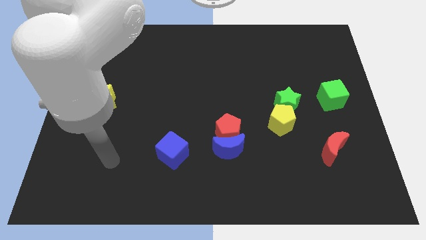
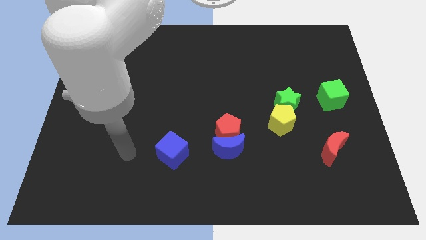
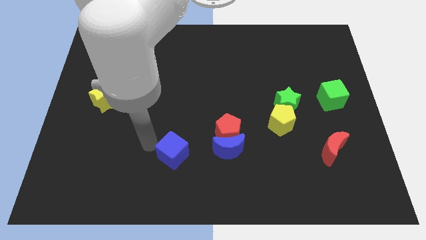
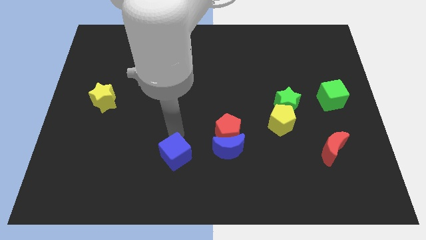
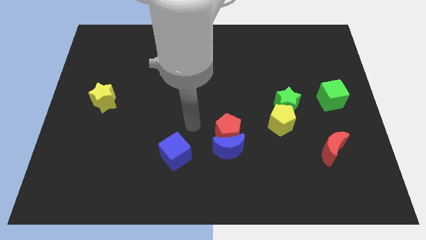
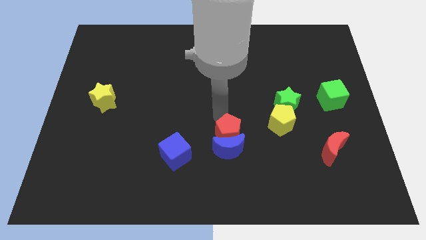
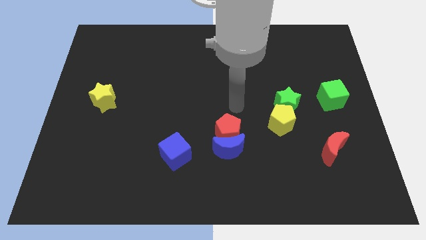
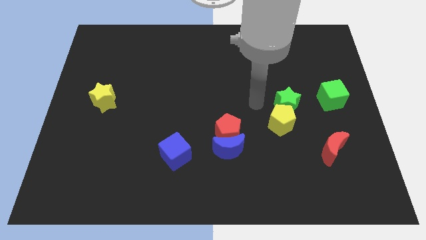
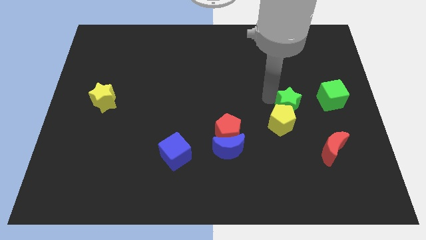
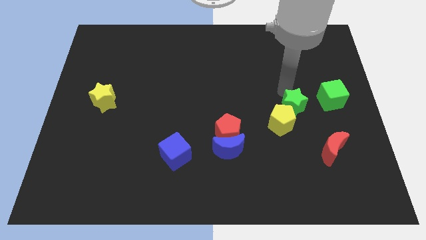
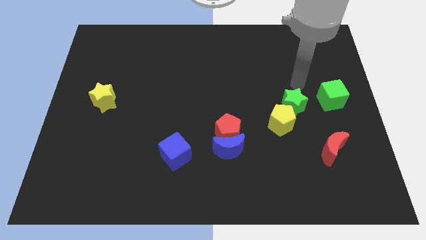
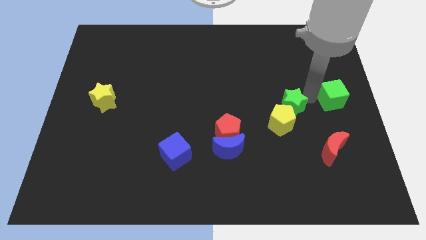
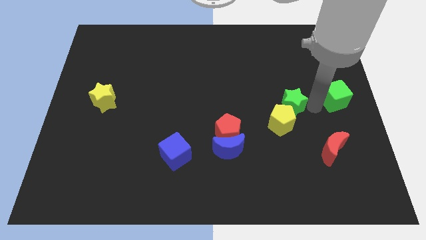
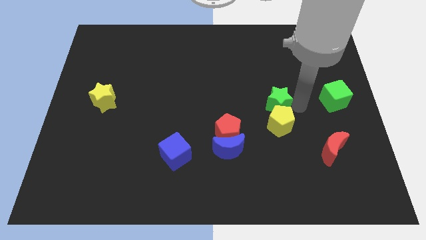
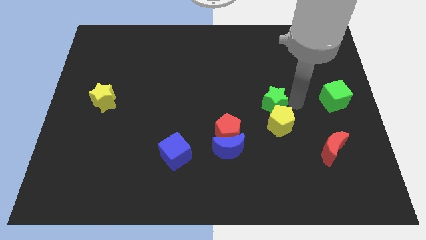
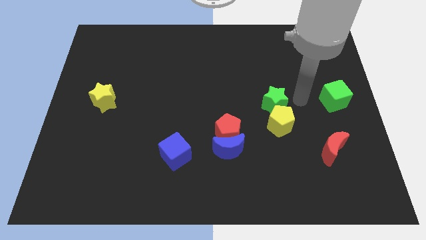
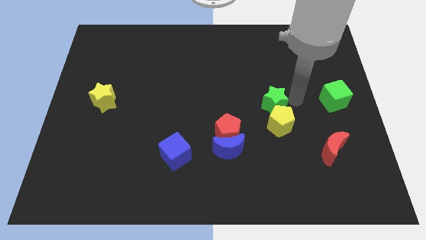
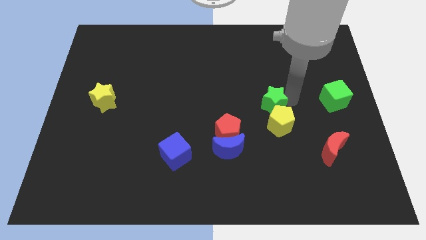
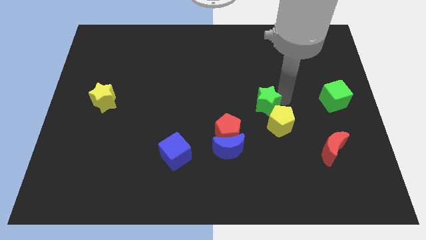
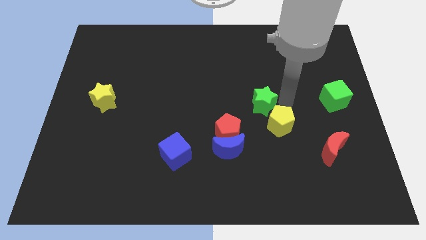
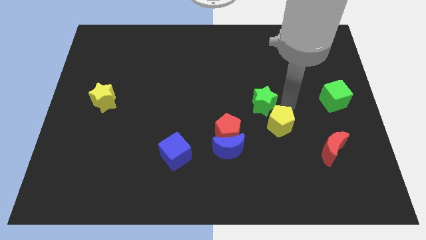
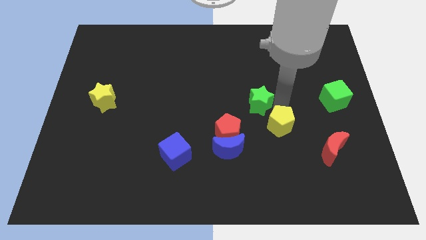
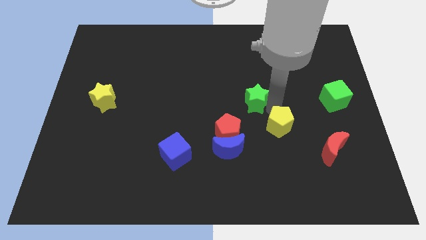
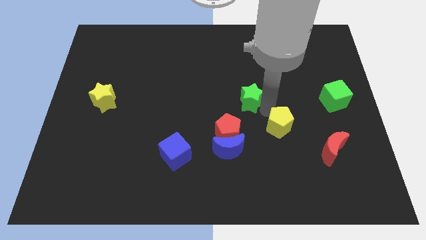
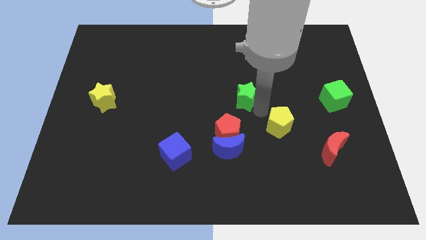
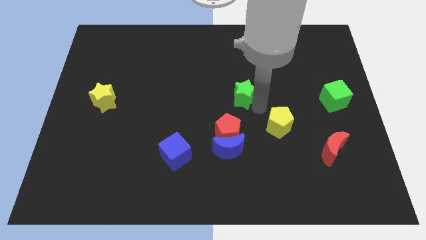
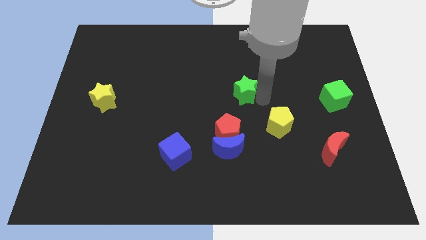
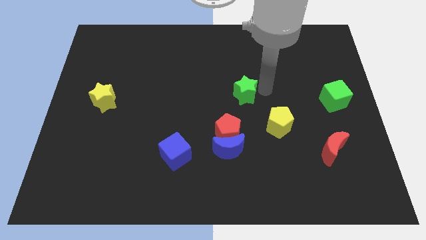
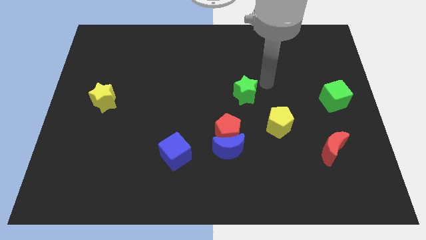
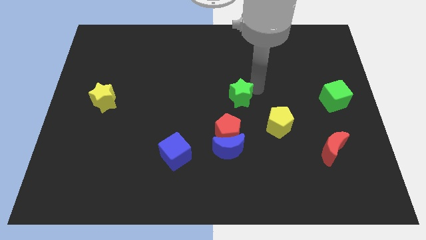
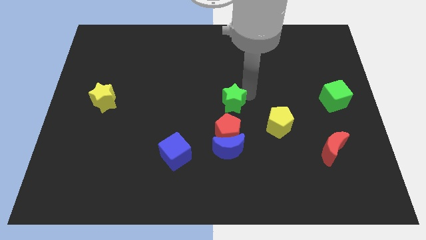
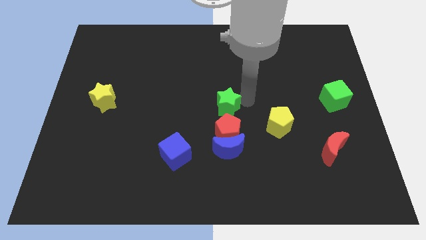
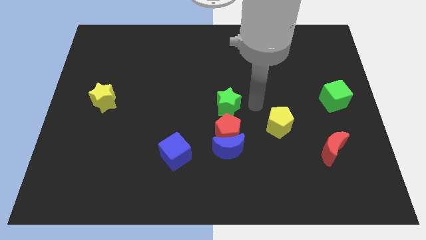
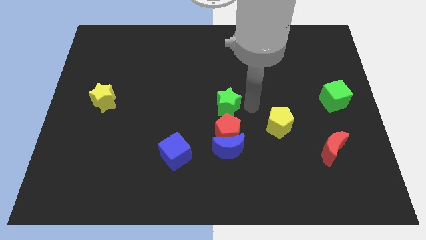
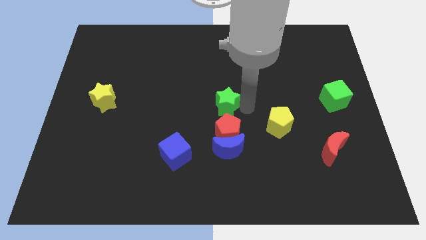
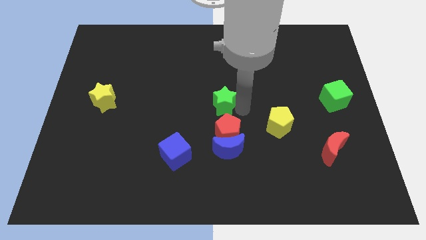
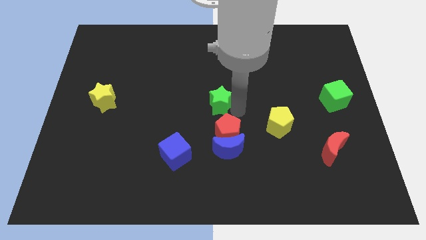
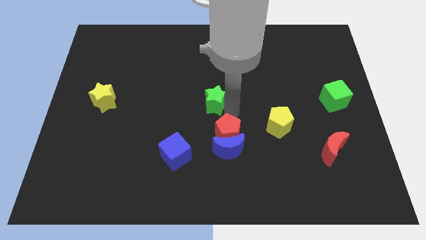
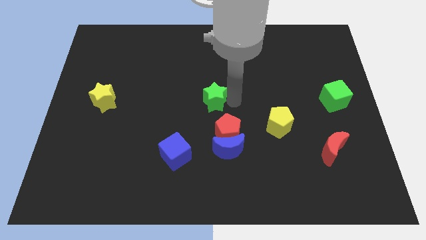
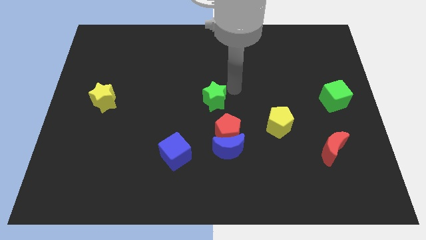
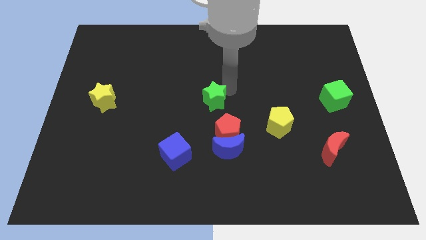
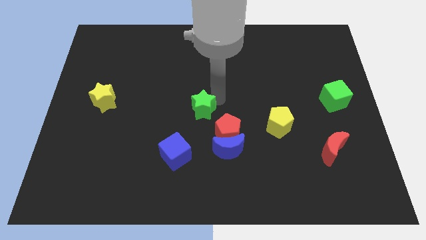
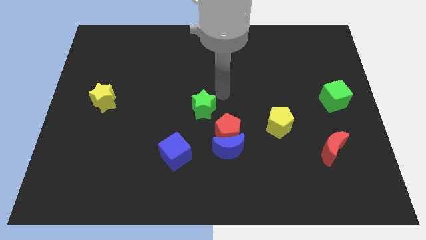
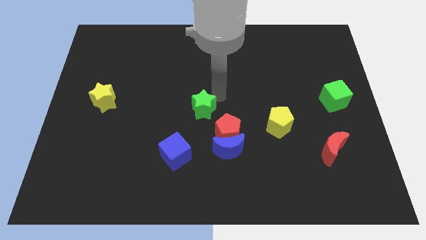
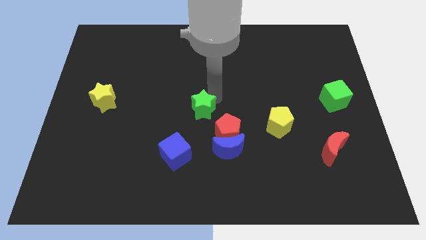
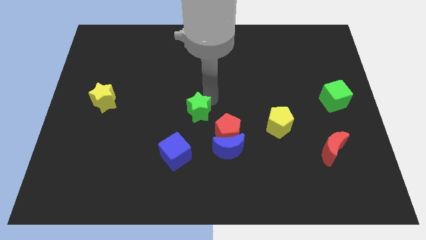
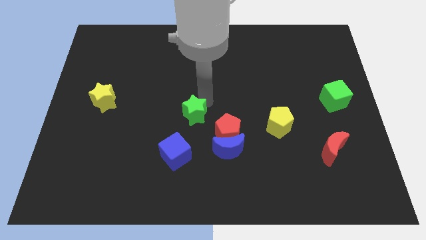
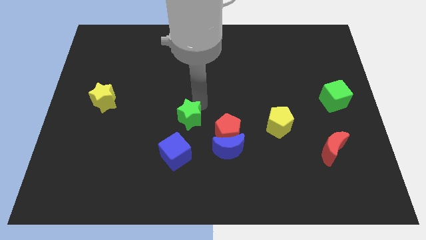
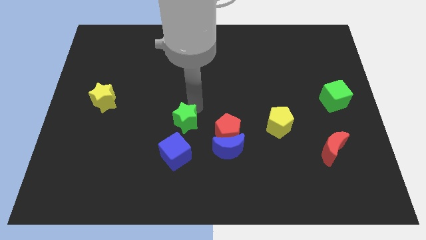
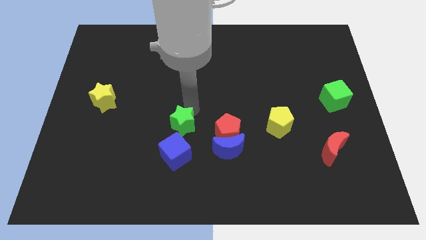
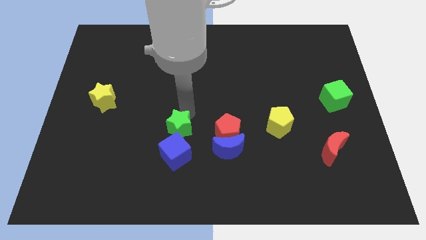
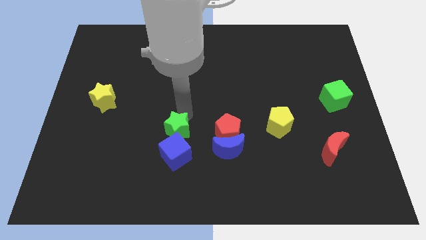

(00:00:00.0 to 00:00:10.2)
slide the green star next to the blue cube

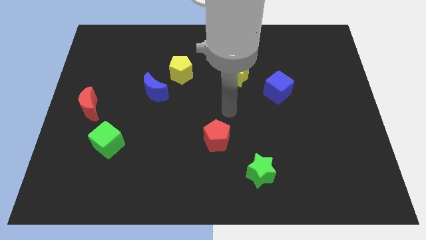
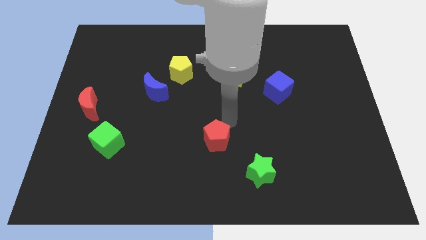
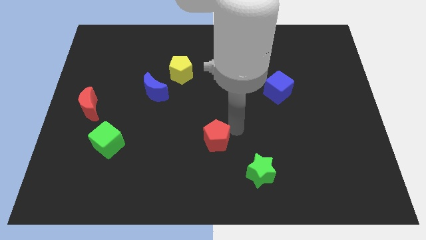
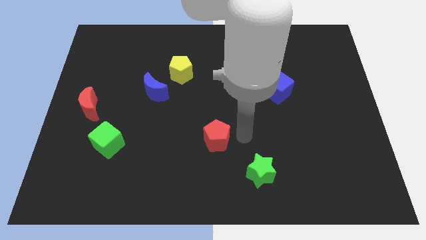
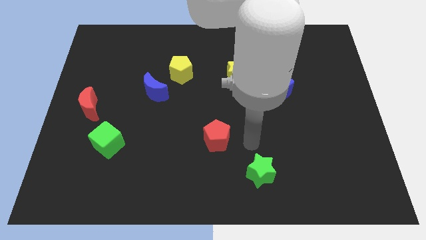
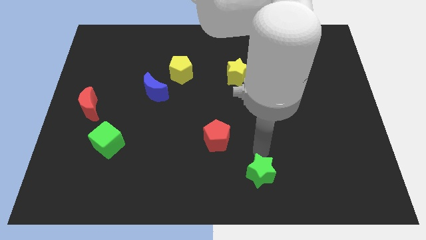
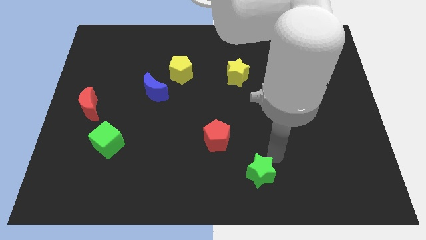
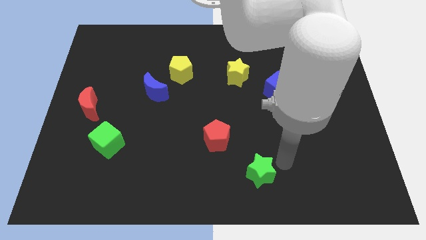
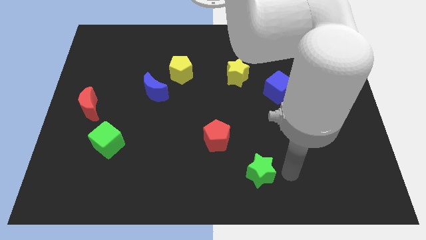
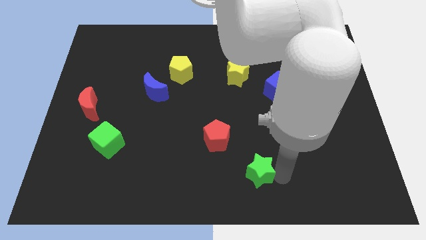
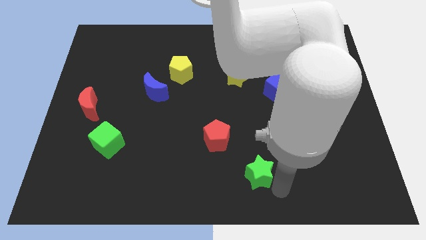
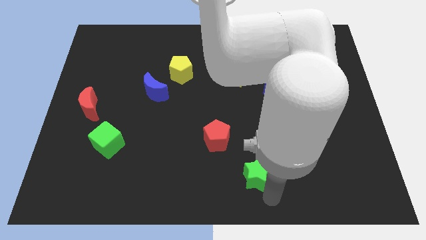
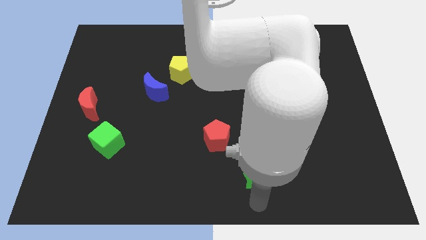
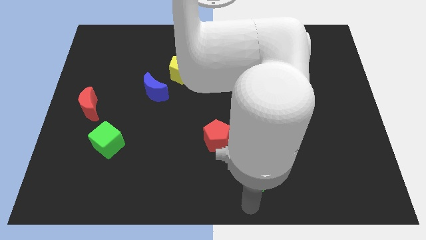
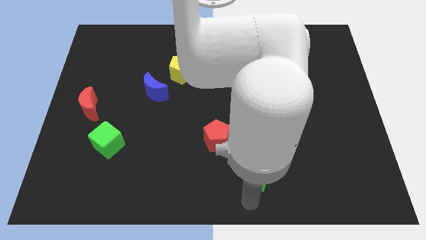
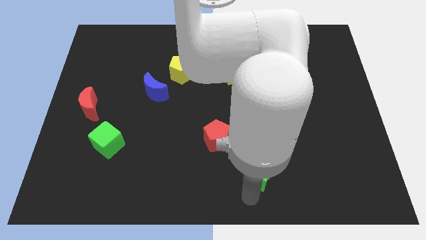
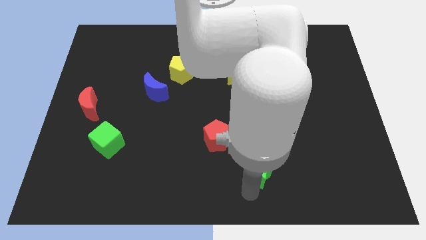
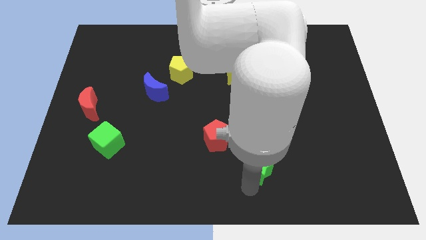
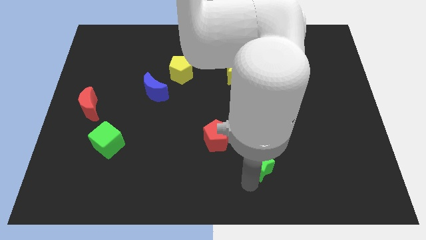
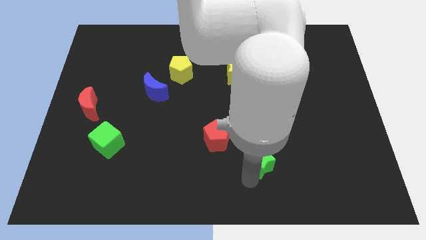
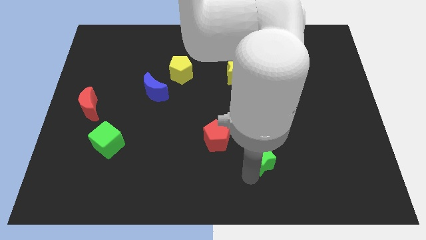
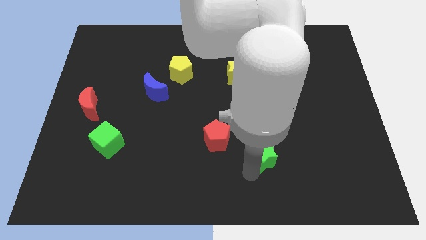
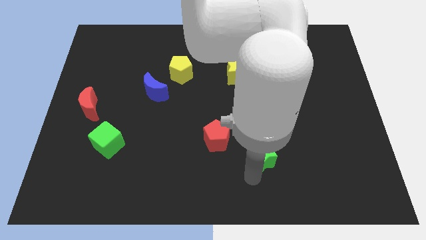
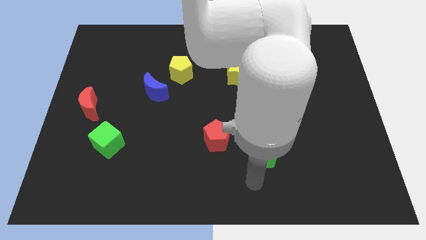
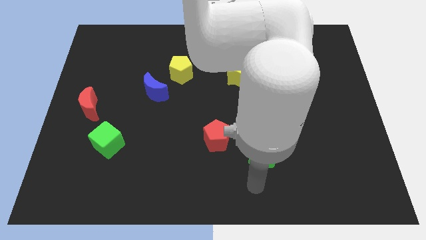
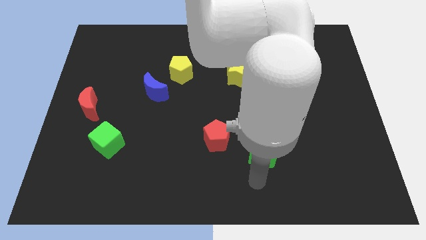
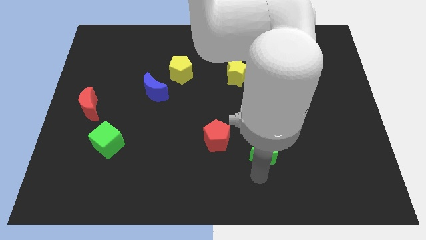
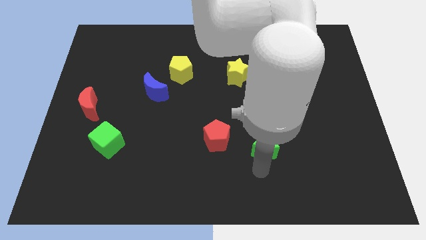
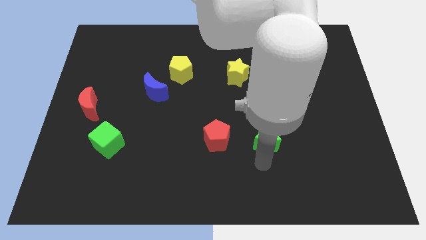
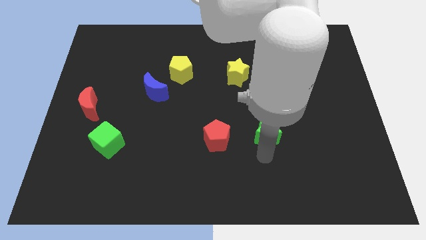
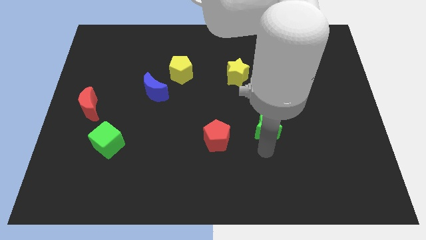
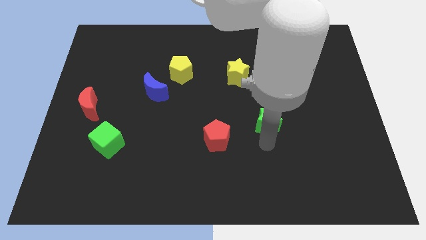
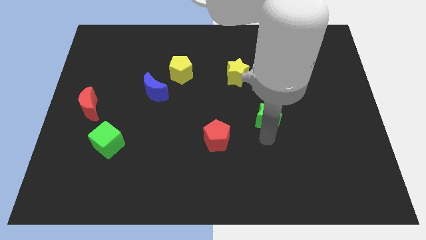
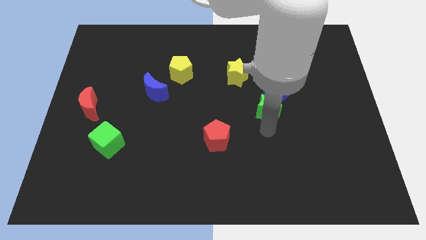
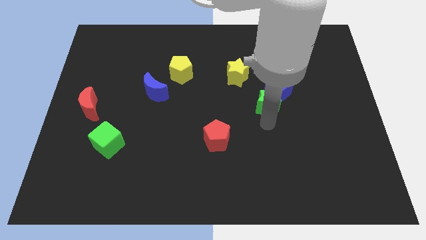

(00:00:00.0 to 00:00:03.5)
move the green star close to the blue cube
